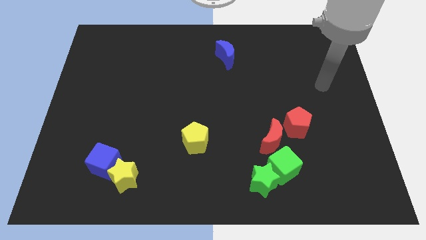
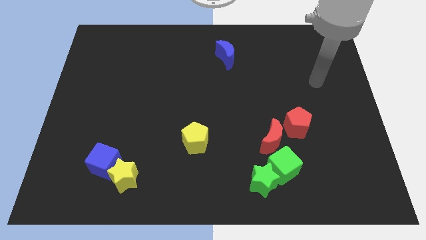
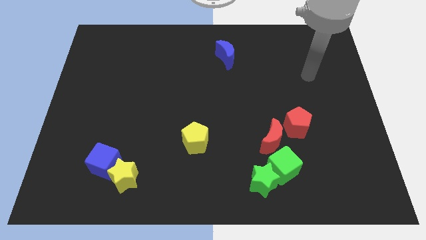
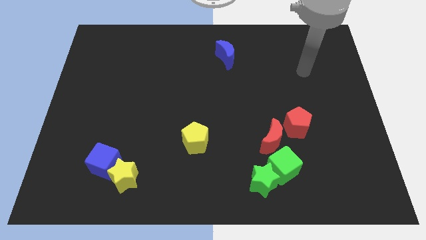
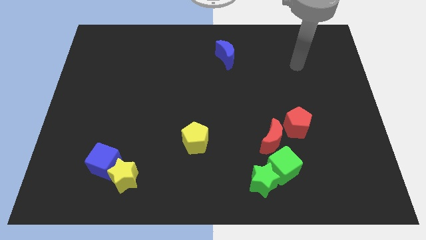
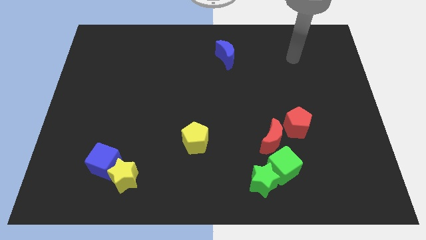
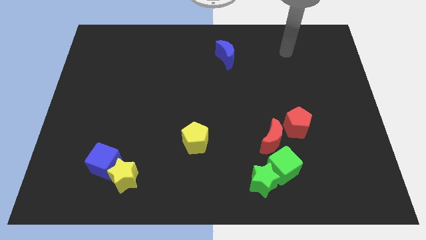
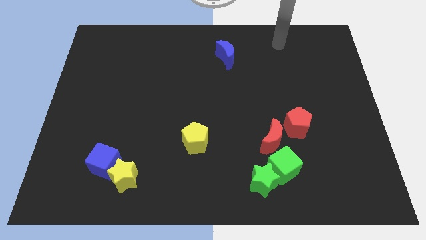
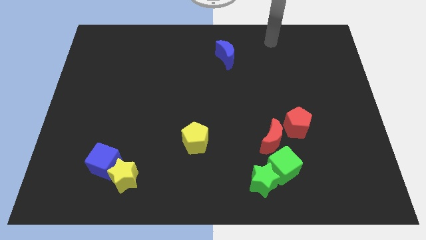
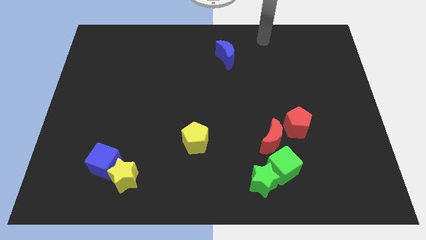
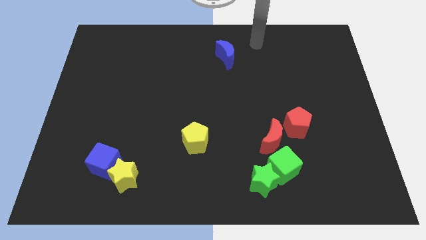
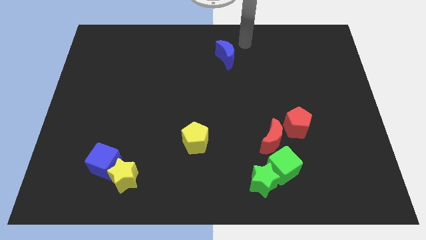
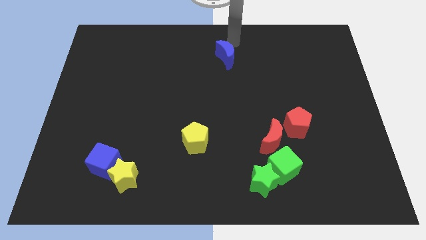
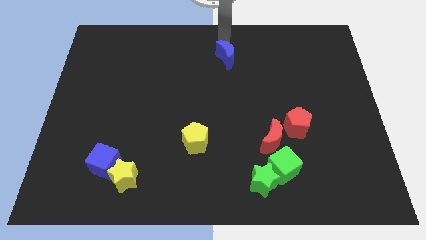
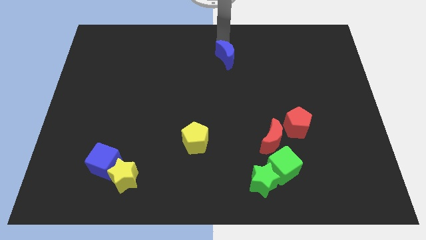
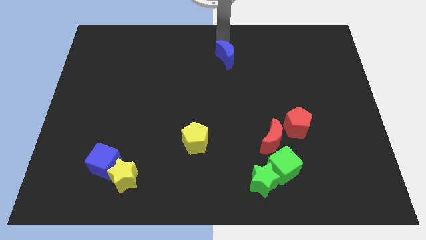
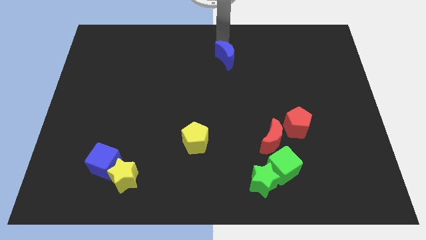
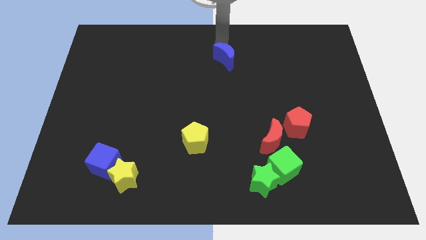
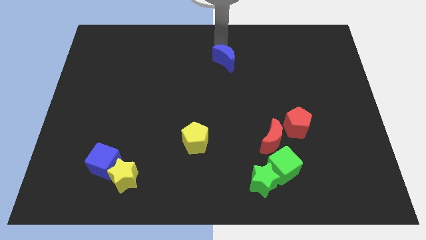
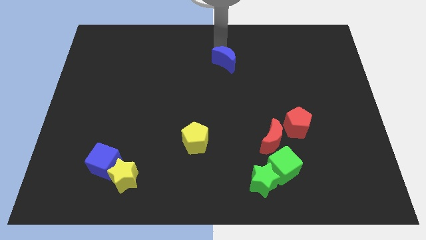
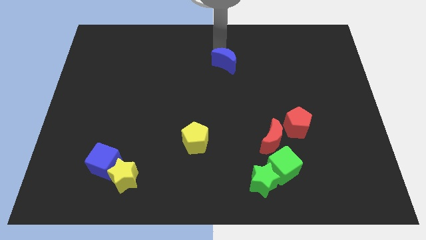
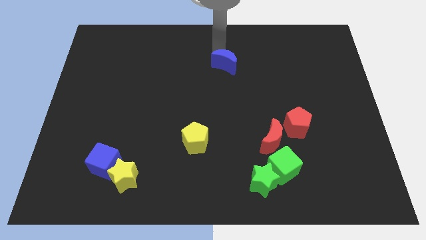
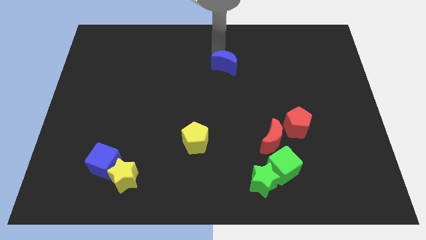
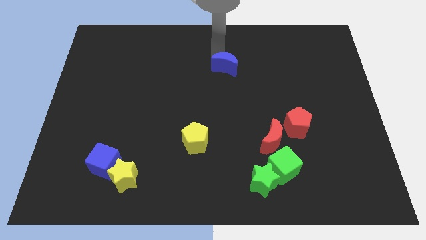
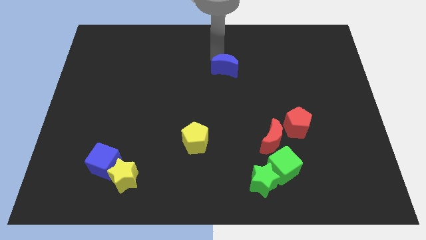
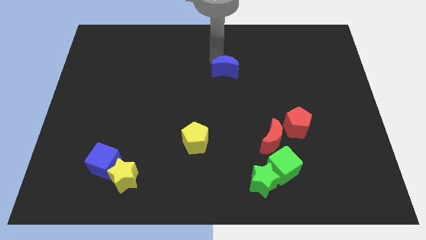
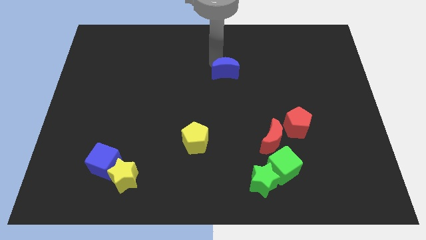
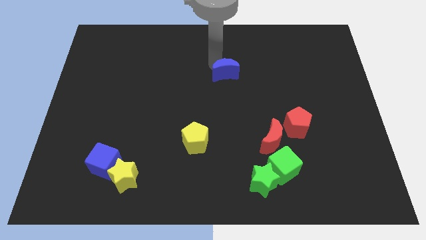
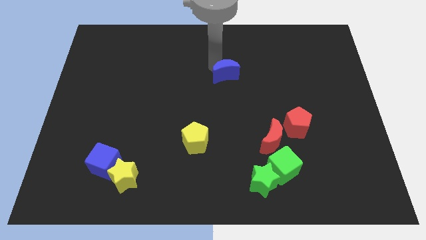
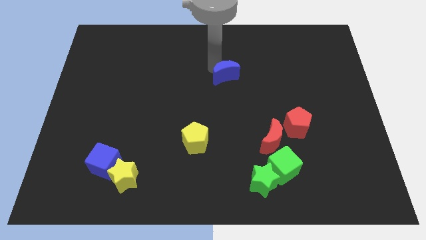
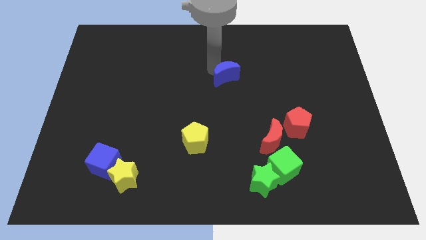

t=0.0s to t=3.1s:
slightly slide the blue moon down

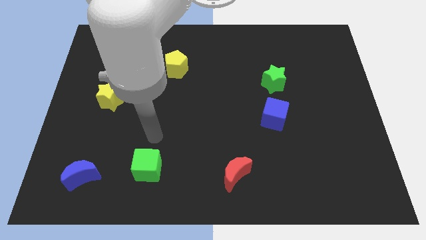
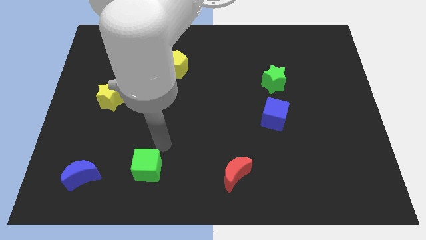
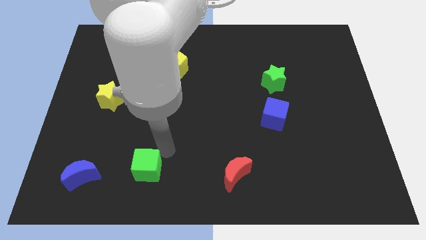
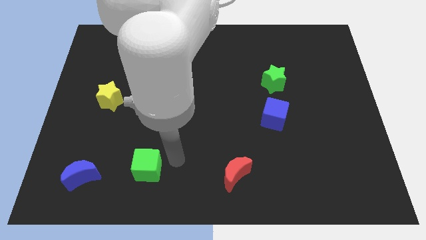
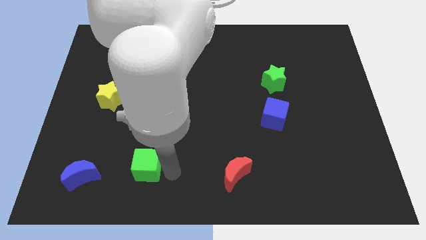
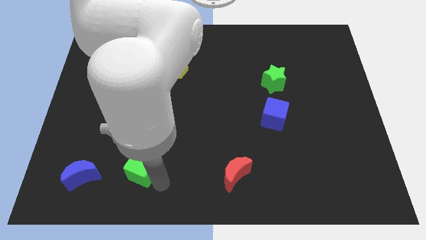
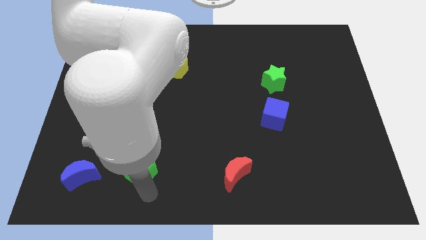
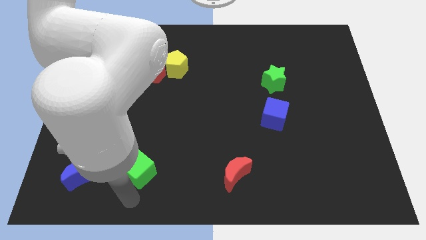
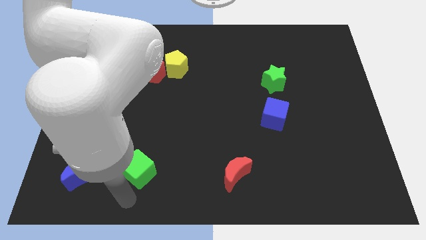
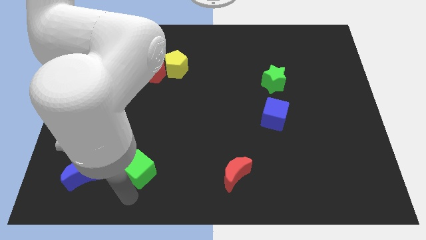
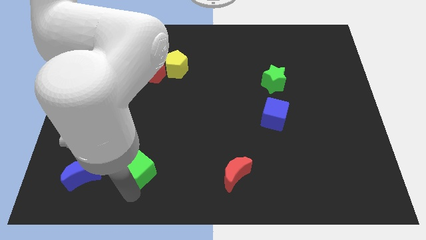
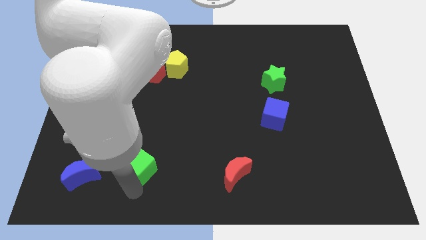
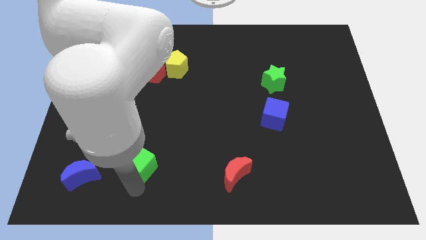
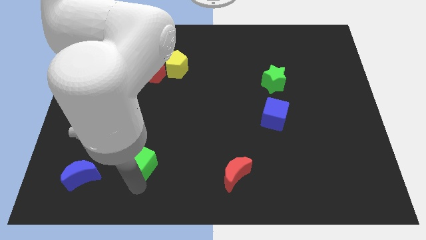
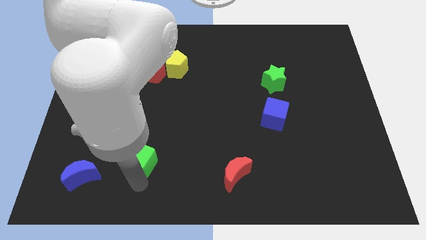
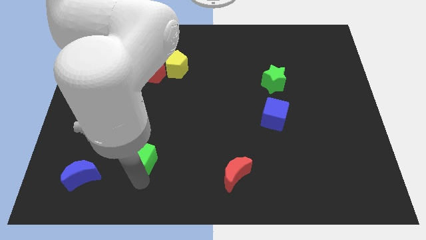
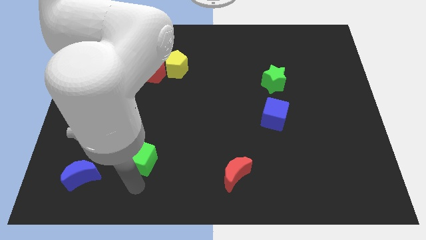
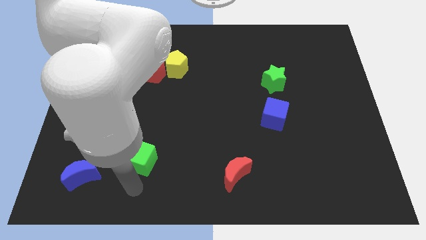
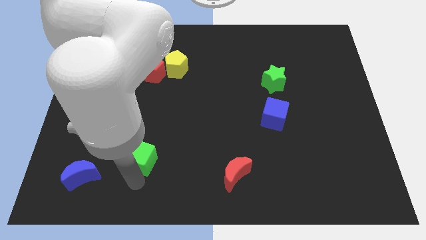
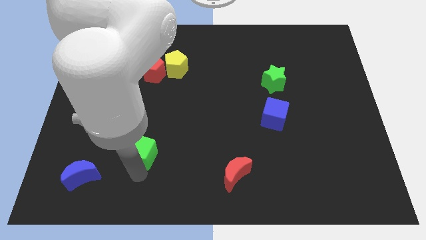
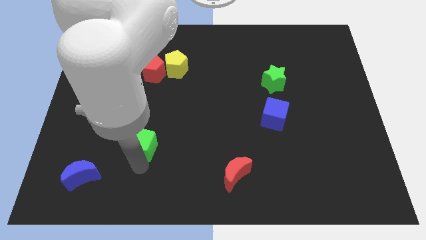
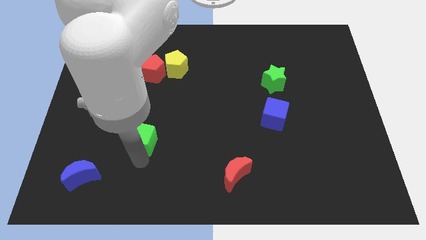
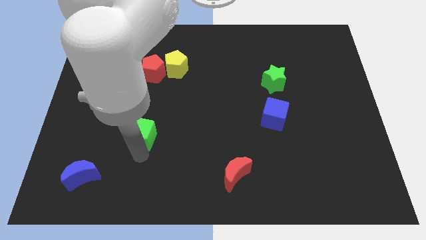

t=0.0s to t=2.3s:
move the green cube a little up

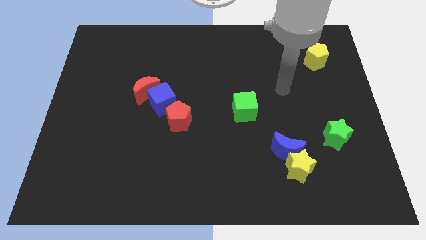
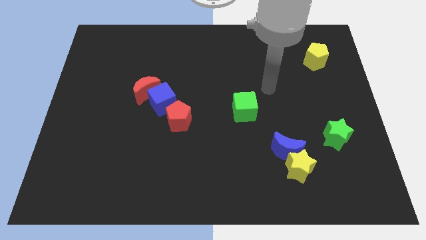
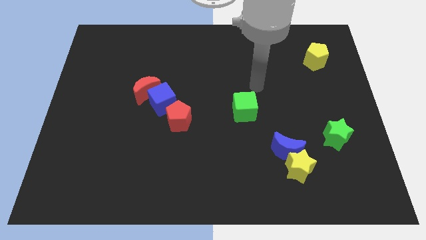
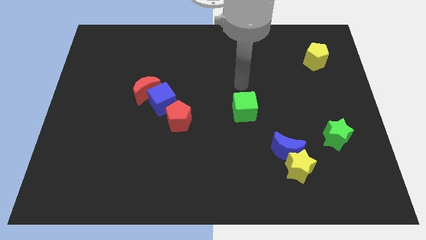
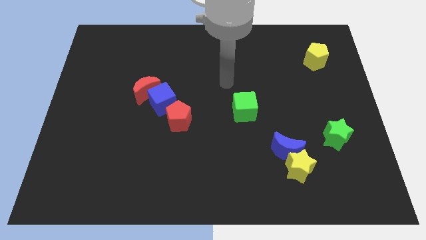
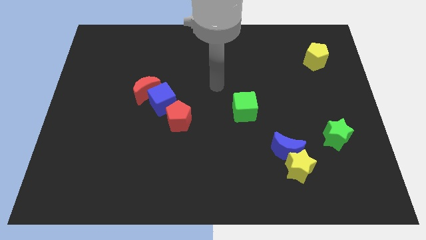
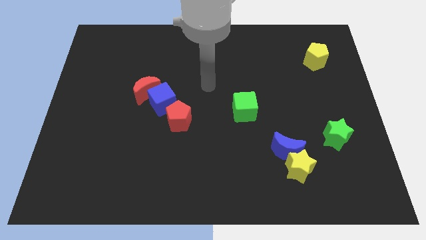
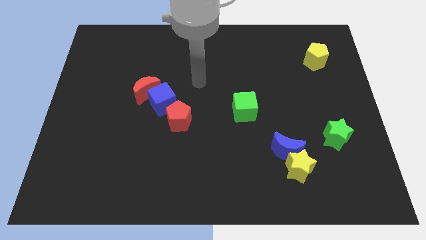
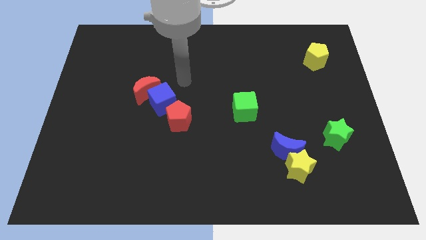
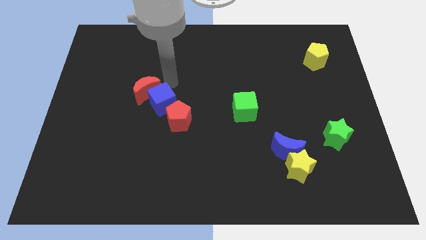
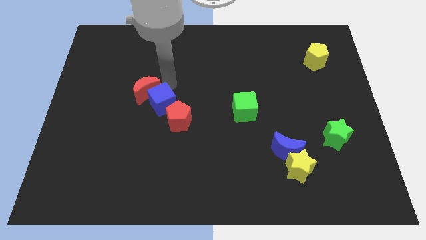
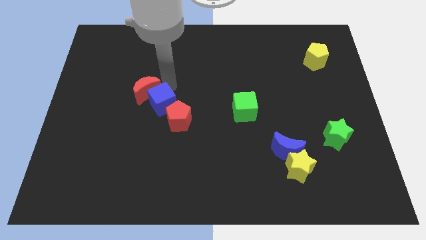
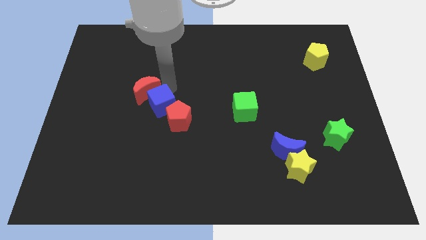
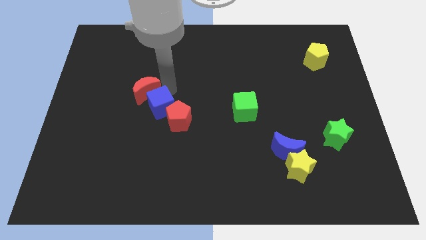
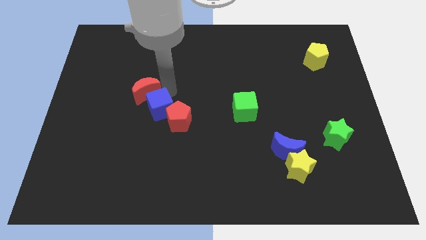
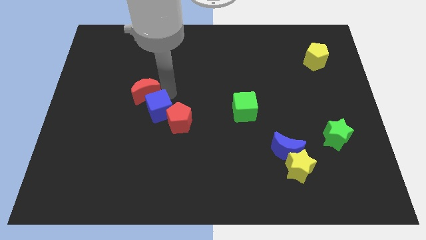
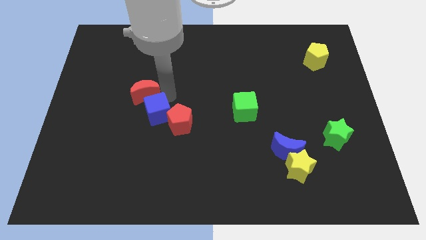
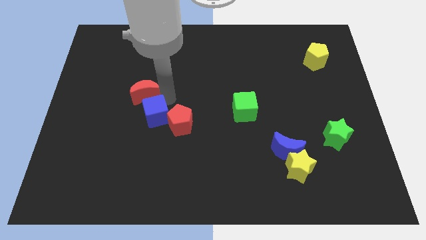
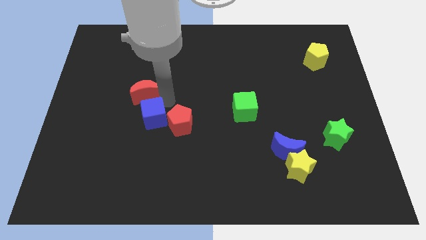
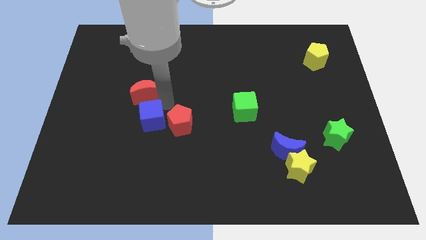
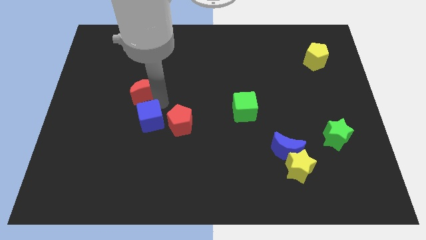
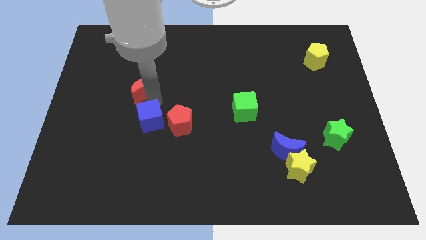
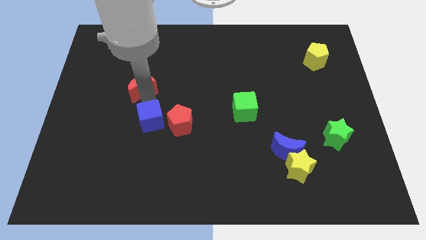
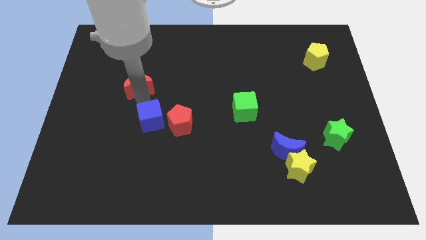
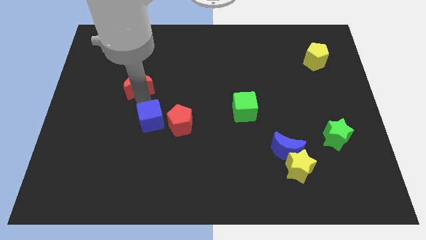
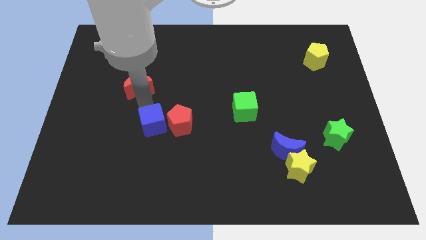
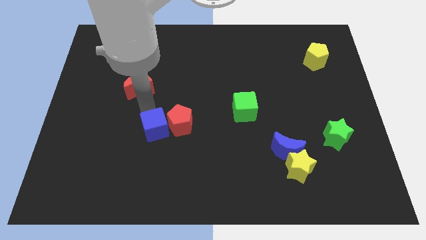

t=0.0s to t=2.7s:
push the blue cube down slightly

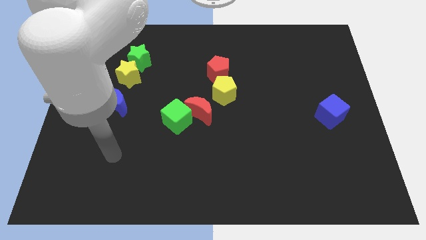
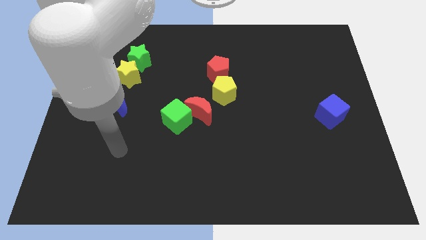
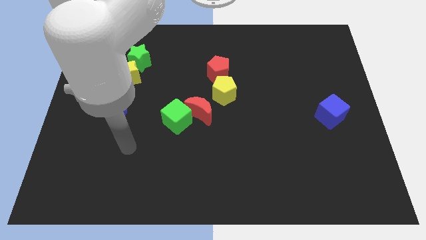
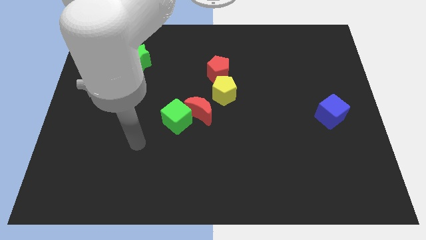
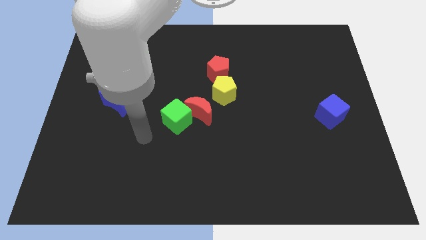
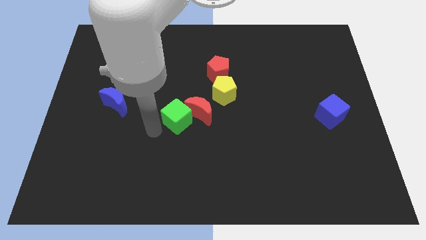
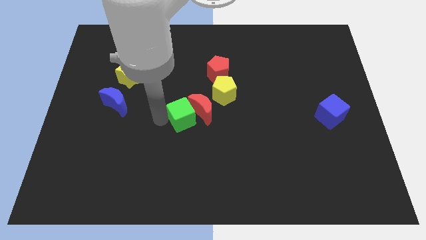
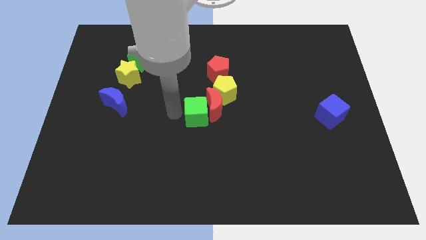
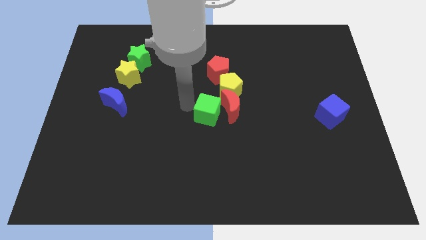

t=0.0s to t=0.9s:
push the red moon to the right slightly
